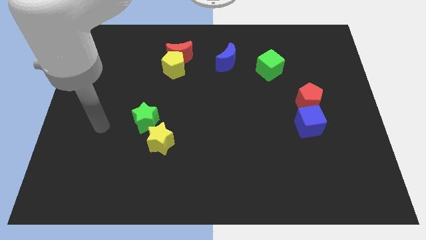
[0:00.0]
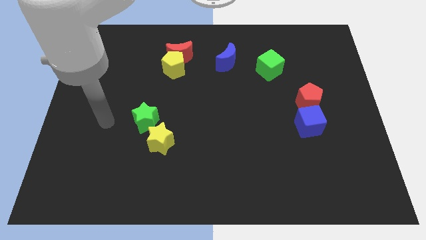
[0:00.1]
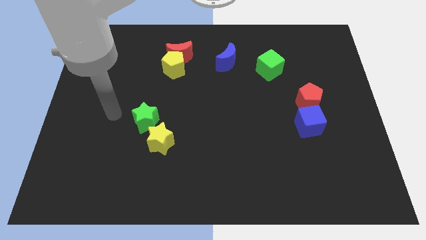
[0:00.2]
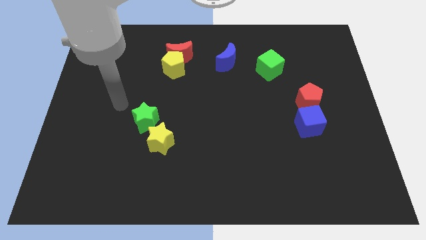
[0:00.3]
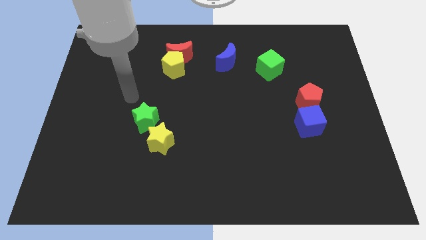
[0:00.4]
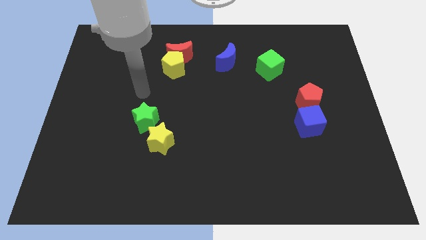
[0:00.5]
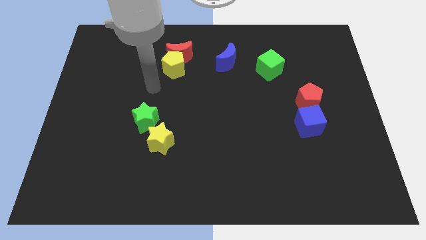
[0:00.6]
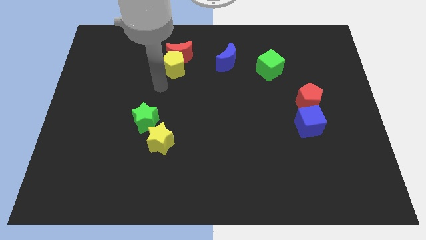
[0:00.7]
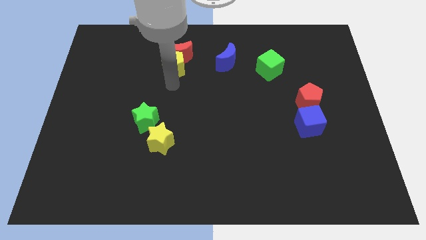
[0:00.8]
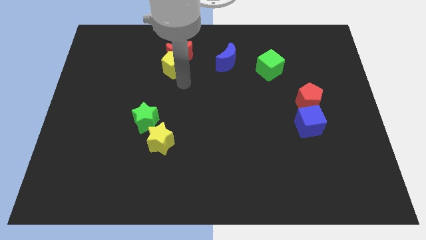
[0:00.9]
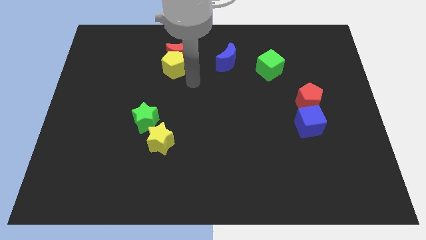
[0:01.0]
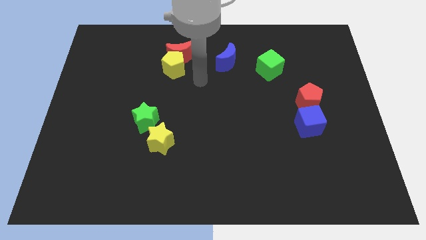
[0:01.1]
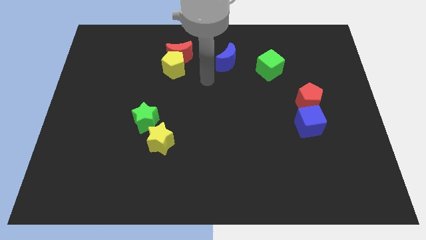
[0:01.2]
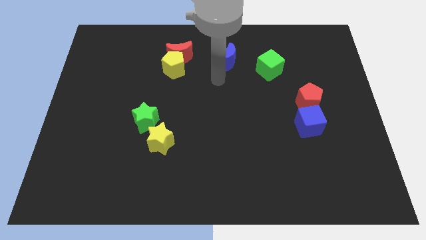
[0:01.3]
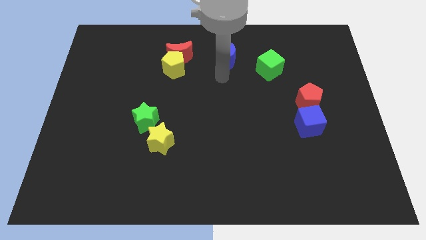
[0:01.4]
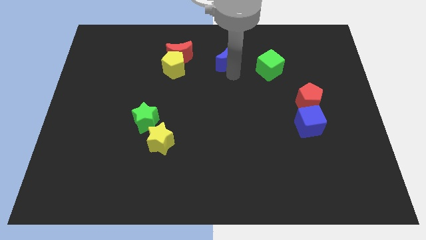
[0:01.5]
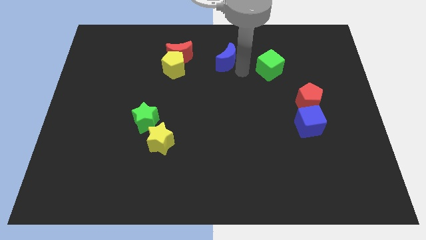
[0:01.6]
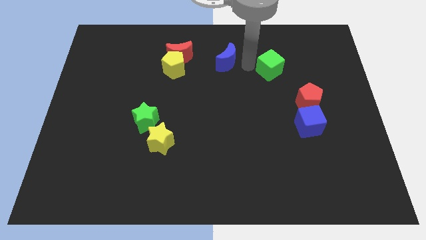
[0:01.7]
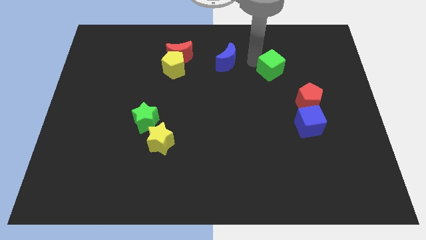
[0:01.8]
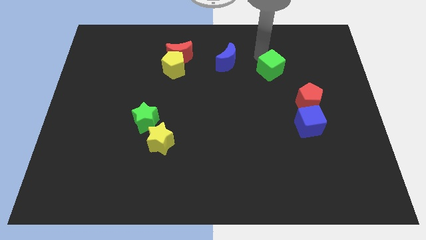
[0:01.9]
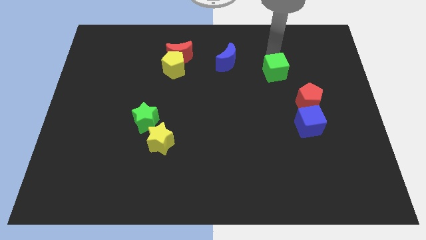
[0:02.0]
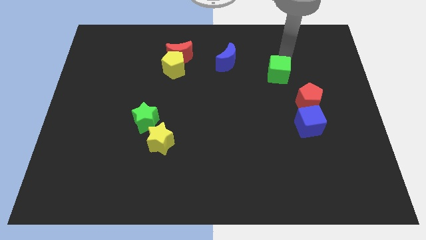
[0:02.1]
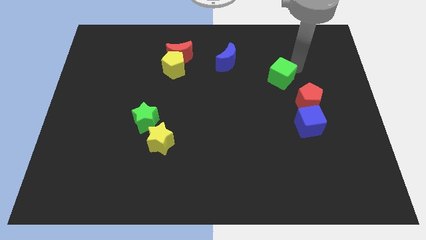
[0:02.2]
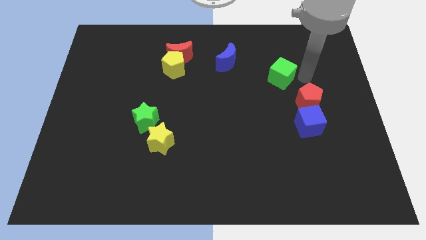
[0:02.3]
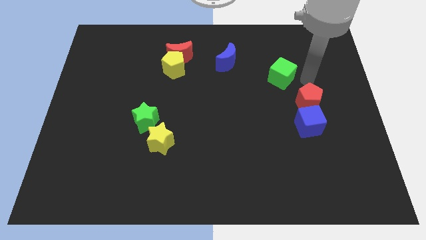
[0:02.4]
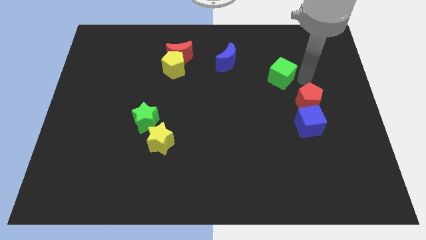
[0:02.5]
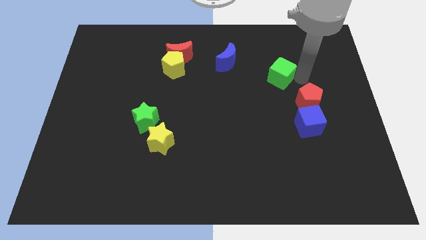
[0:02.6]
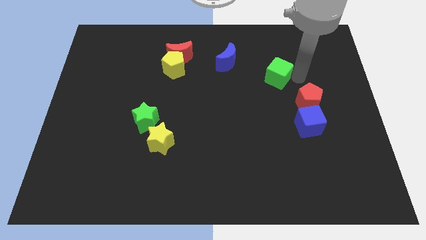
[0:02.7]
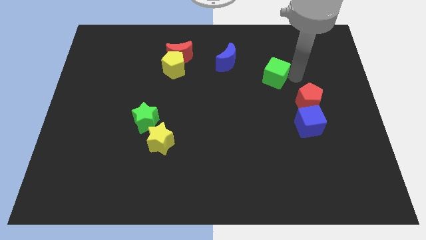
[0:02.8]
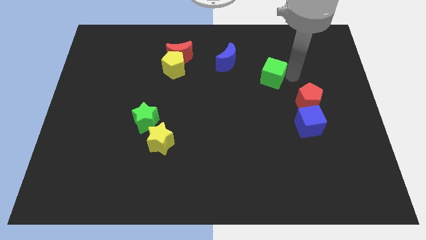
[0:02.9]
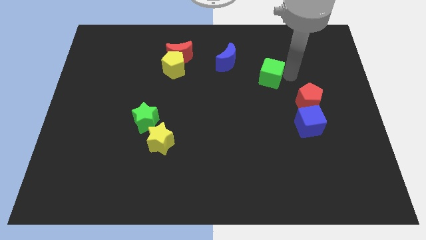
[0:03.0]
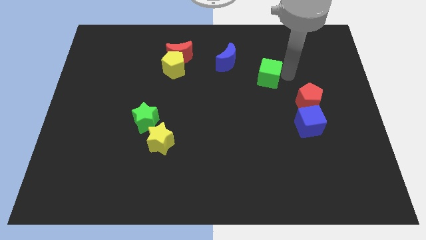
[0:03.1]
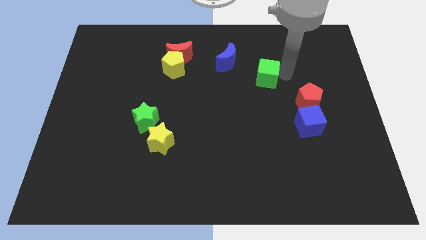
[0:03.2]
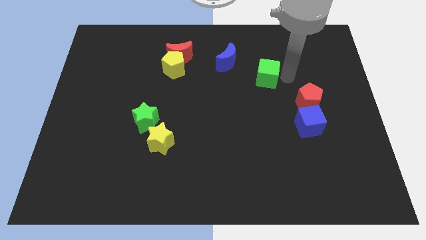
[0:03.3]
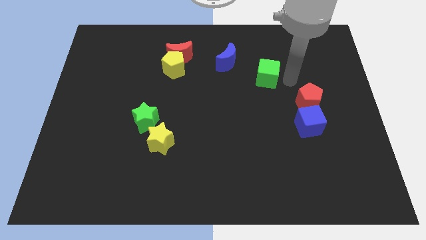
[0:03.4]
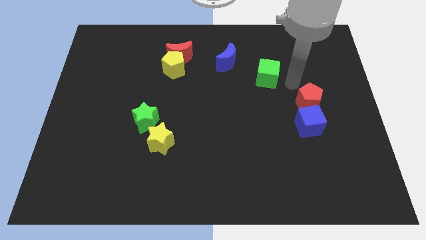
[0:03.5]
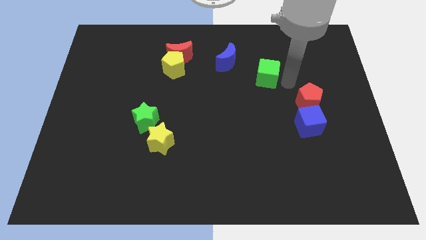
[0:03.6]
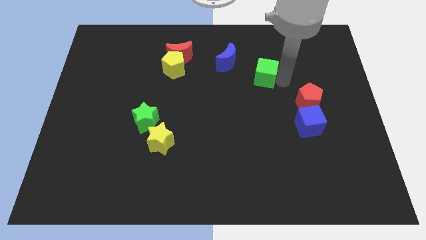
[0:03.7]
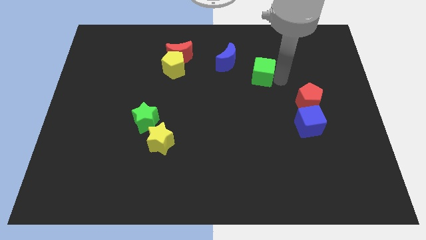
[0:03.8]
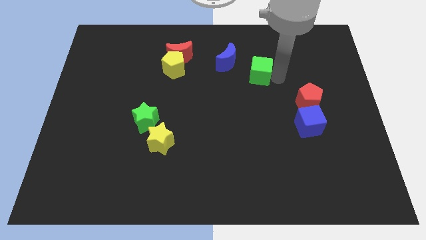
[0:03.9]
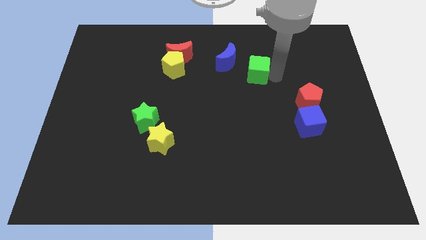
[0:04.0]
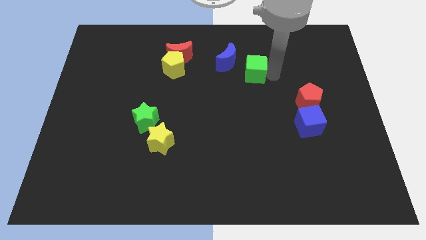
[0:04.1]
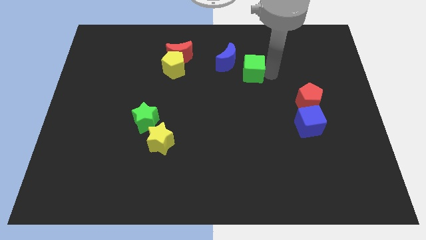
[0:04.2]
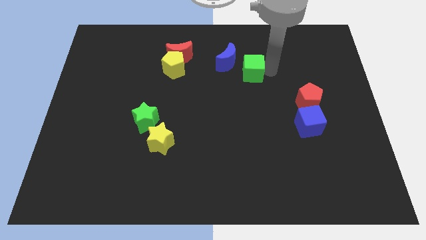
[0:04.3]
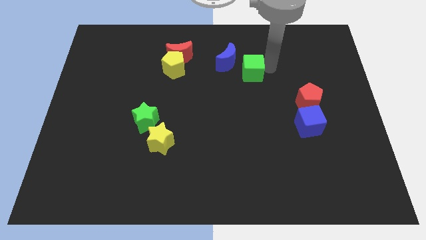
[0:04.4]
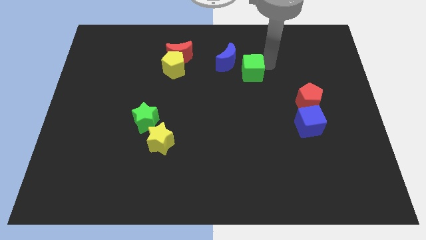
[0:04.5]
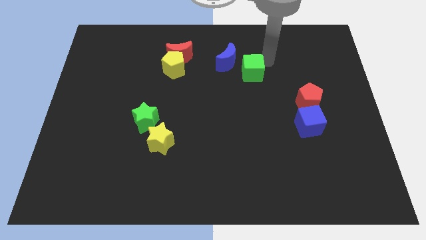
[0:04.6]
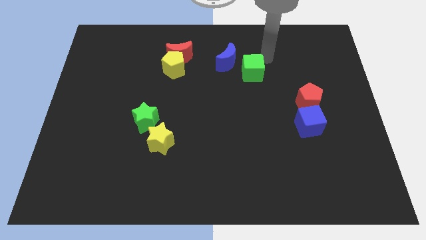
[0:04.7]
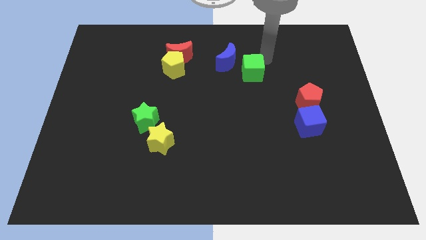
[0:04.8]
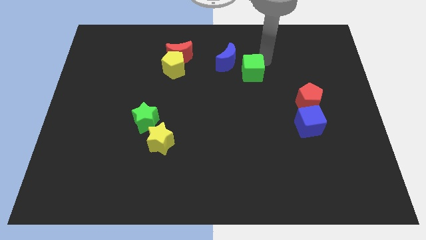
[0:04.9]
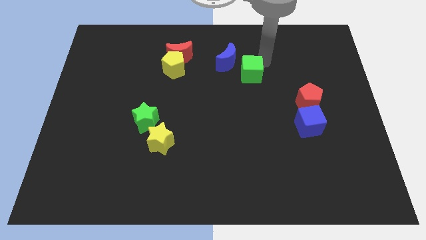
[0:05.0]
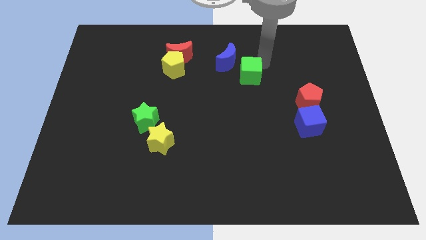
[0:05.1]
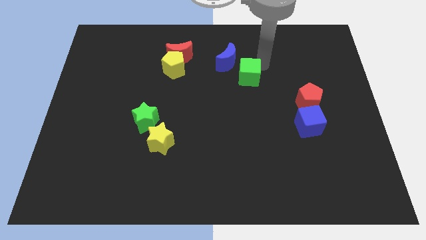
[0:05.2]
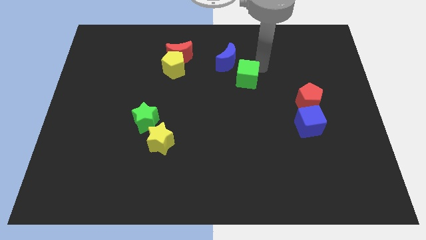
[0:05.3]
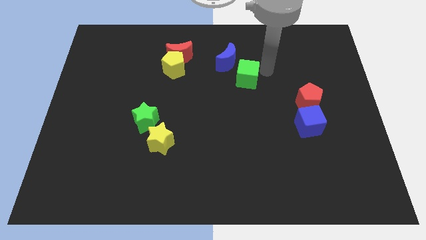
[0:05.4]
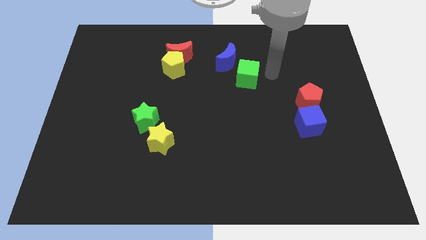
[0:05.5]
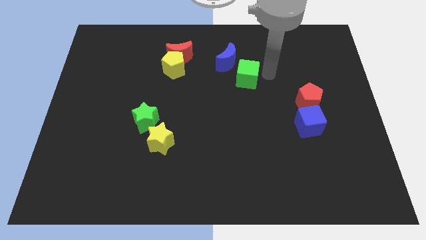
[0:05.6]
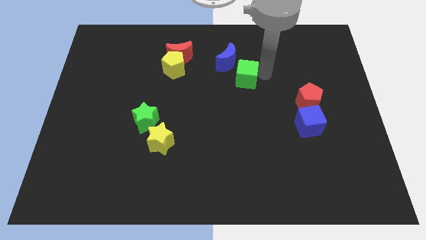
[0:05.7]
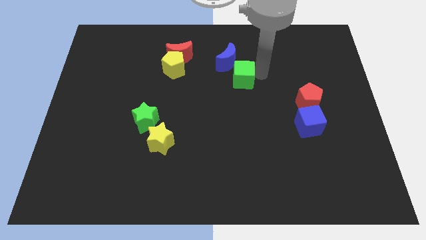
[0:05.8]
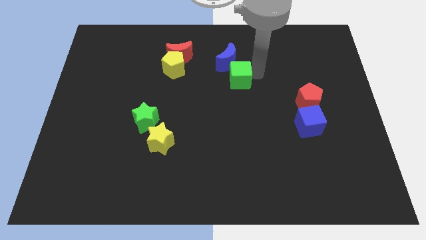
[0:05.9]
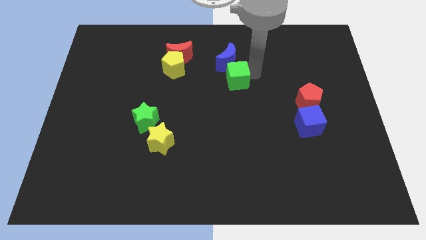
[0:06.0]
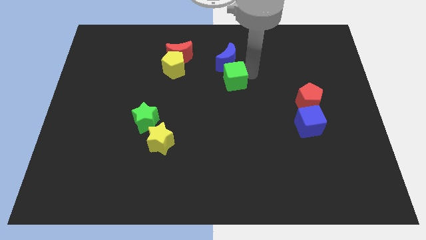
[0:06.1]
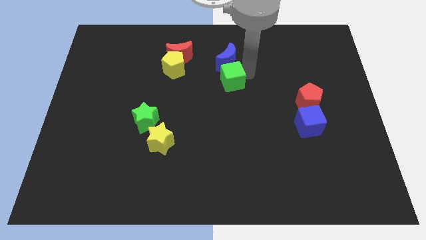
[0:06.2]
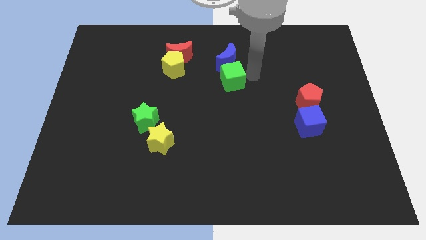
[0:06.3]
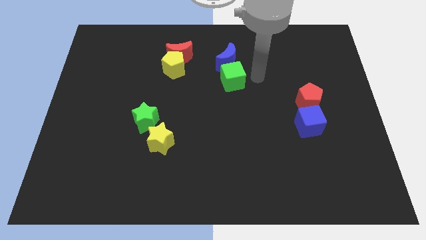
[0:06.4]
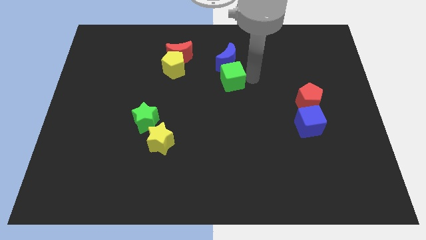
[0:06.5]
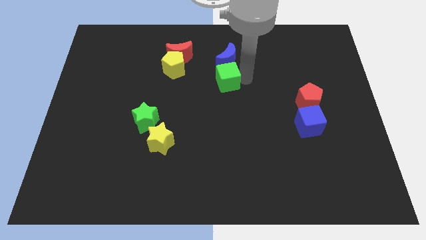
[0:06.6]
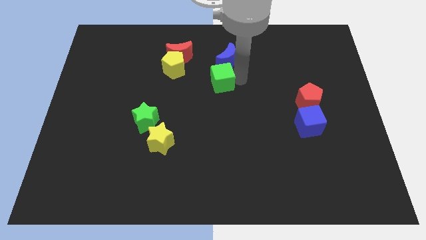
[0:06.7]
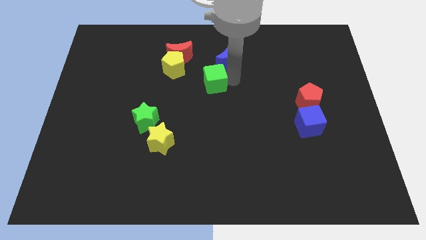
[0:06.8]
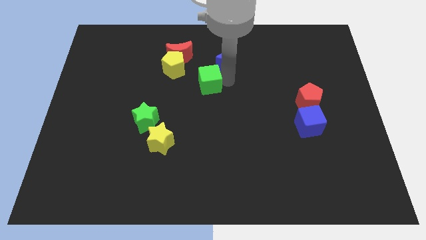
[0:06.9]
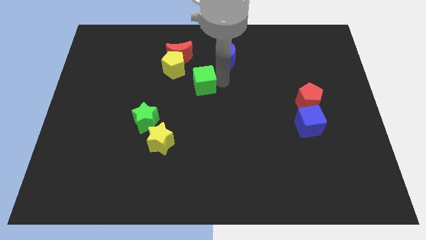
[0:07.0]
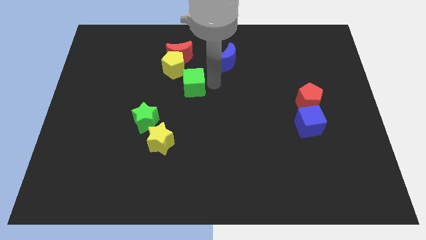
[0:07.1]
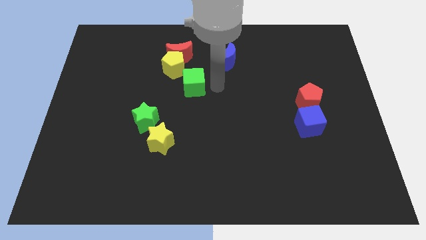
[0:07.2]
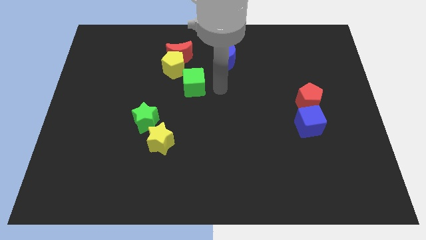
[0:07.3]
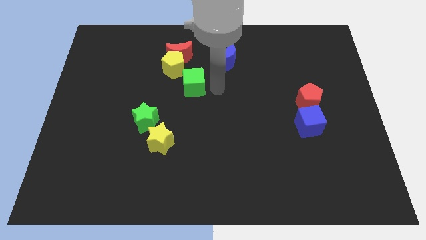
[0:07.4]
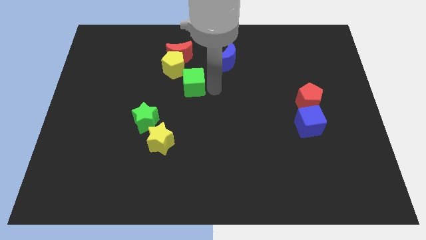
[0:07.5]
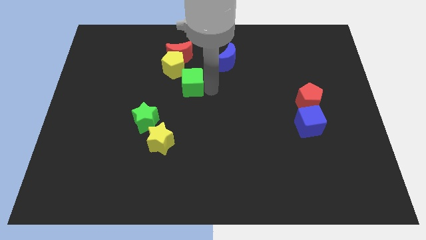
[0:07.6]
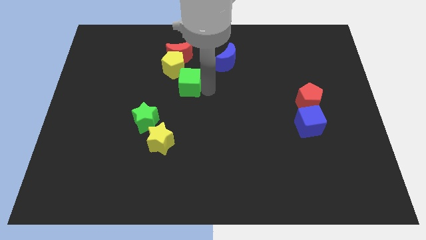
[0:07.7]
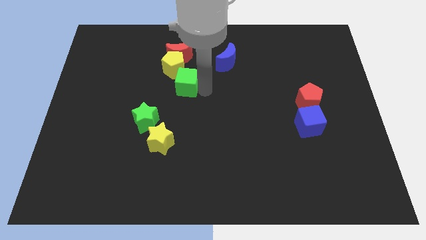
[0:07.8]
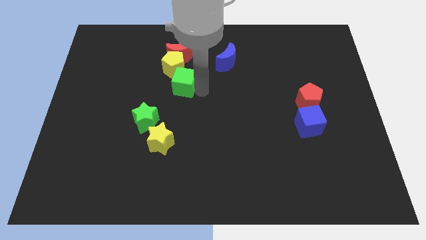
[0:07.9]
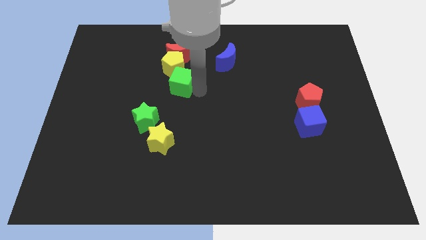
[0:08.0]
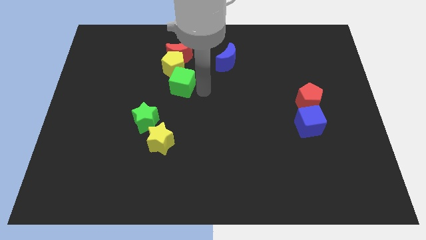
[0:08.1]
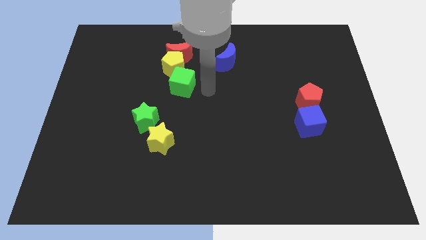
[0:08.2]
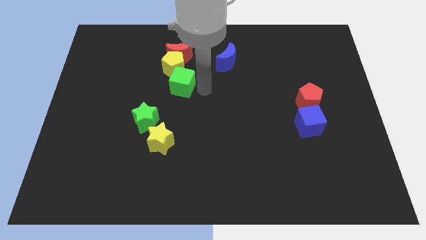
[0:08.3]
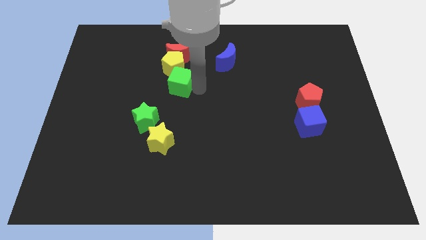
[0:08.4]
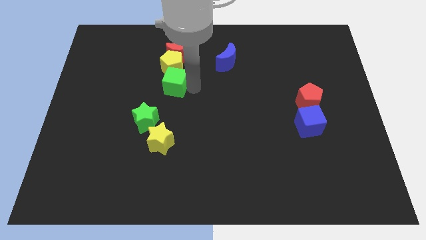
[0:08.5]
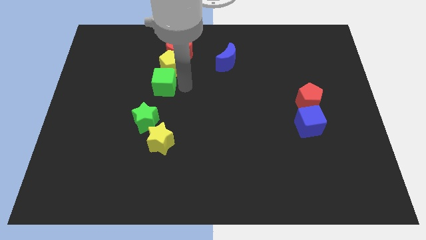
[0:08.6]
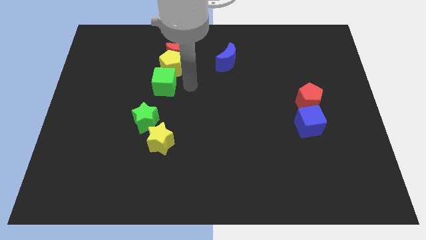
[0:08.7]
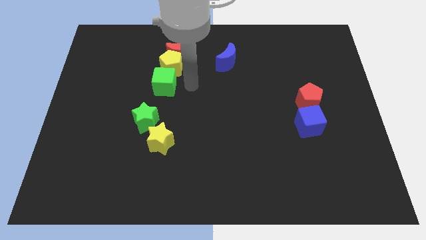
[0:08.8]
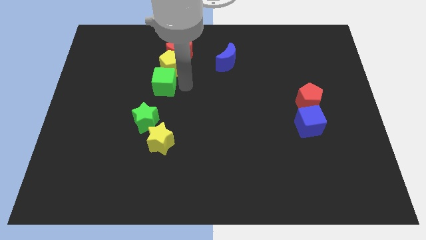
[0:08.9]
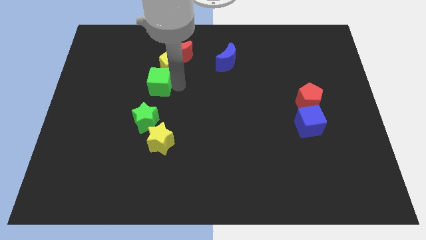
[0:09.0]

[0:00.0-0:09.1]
move the green cube to the bottom left side of the red moon
